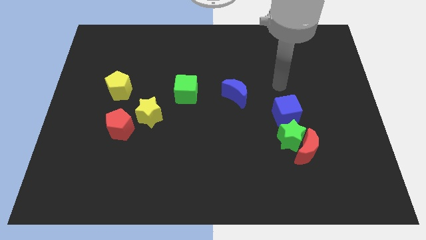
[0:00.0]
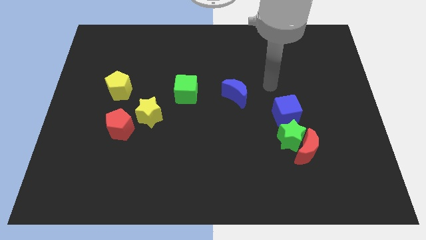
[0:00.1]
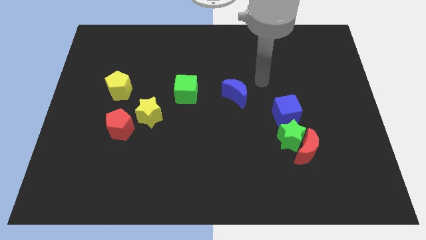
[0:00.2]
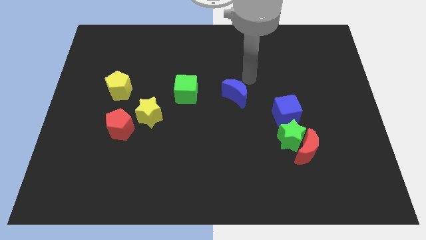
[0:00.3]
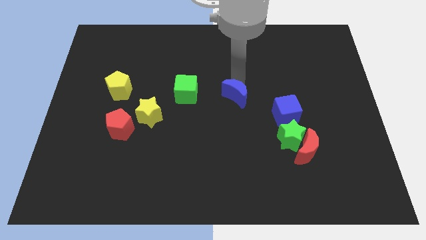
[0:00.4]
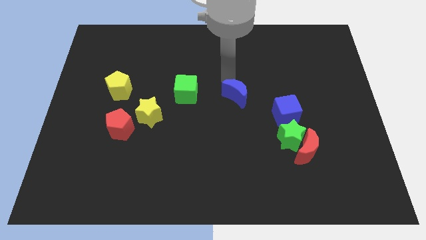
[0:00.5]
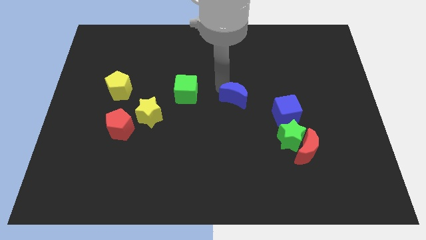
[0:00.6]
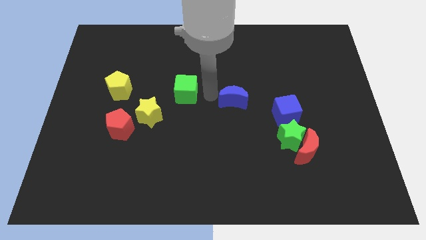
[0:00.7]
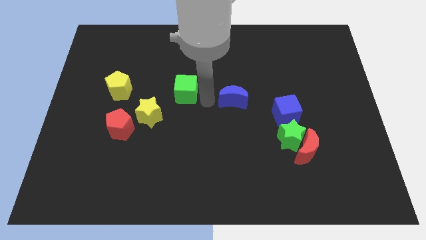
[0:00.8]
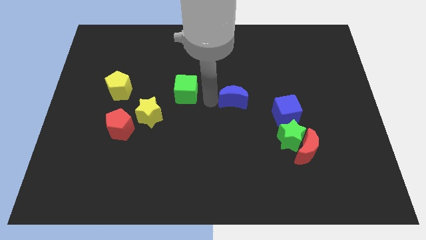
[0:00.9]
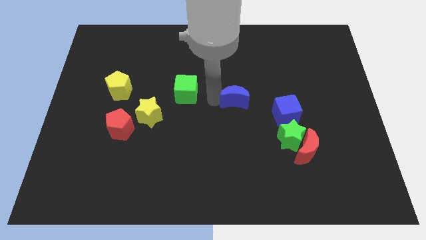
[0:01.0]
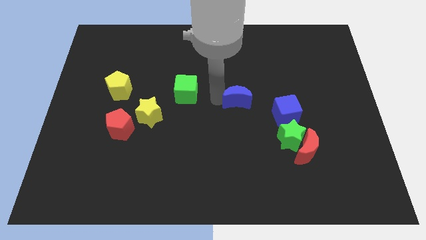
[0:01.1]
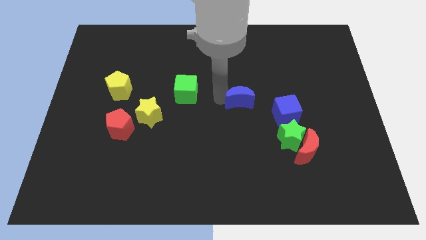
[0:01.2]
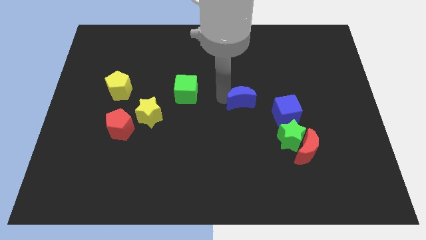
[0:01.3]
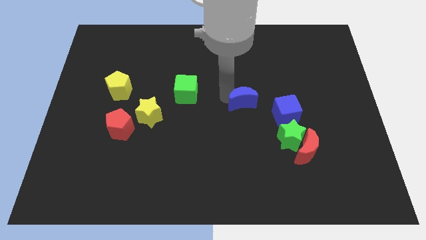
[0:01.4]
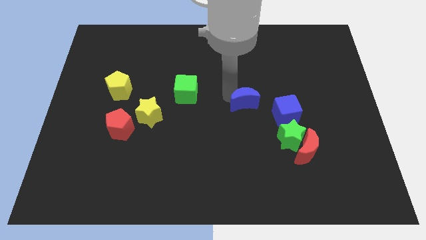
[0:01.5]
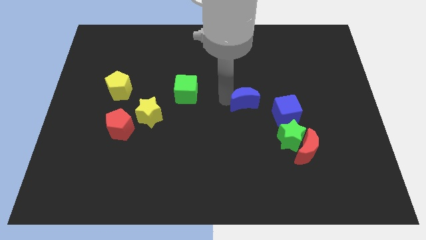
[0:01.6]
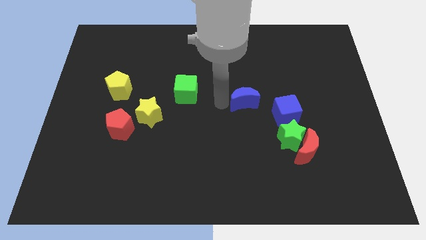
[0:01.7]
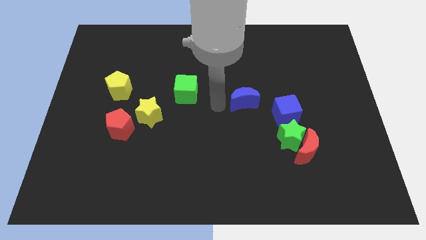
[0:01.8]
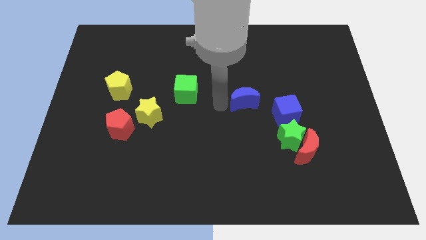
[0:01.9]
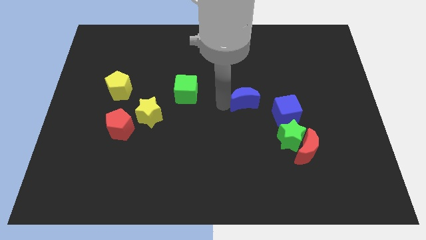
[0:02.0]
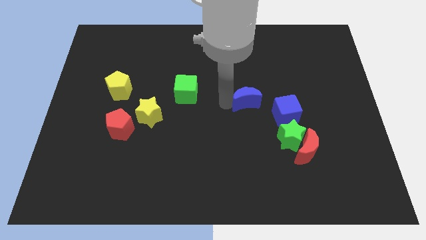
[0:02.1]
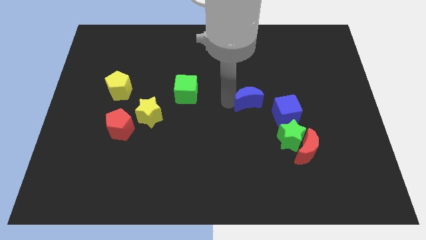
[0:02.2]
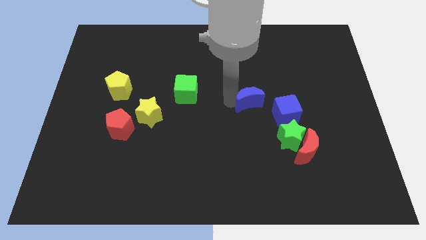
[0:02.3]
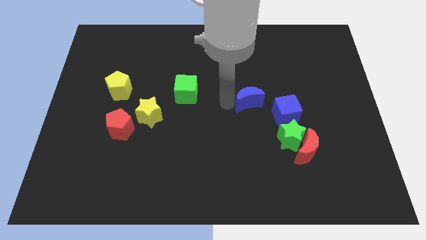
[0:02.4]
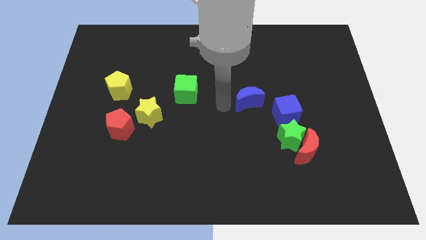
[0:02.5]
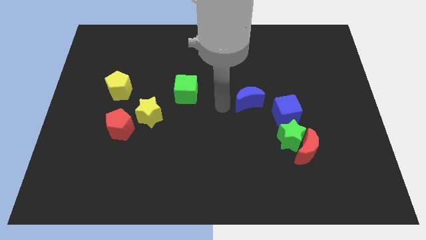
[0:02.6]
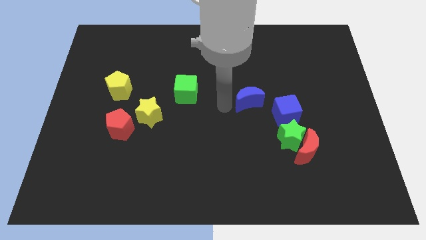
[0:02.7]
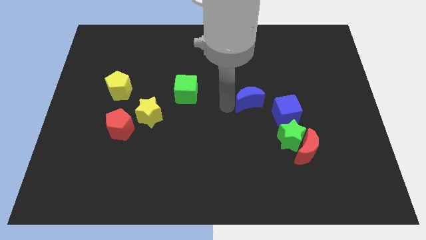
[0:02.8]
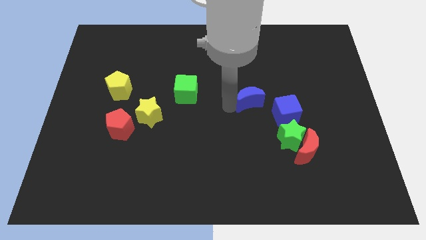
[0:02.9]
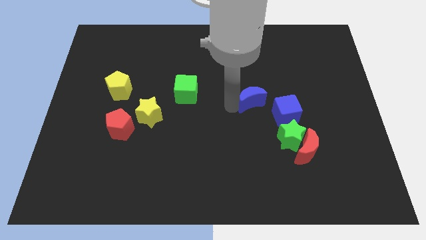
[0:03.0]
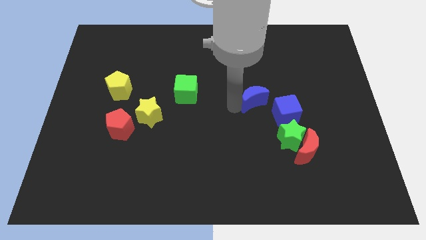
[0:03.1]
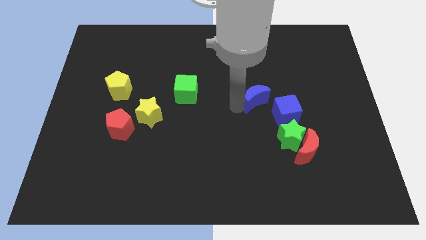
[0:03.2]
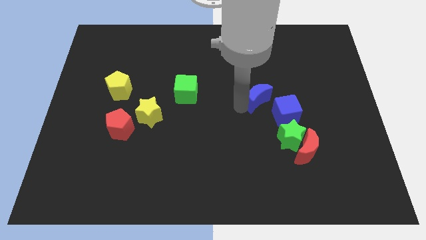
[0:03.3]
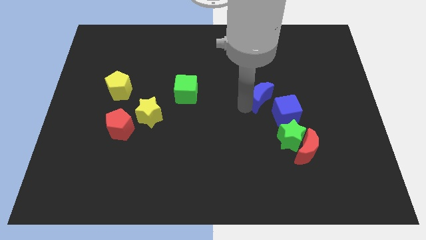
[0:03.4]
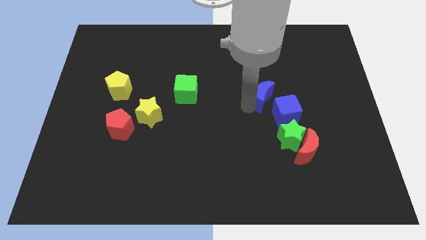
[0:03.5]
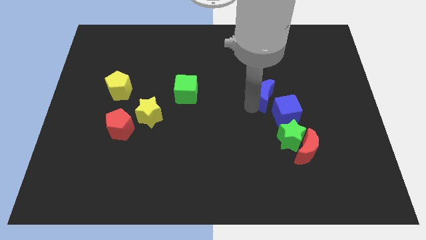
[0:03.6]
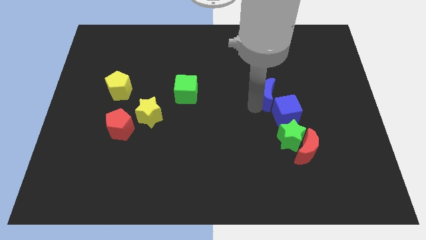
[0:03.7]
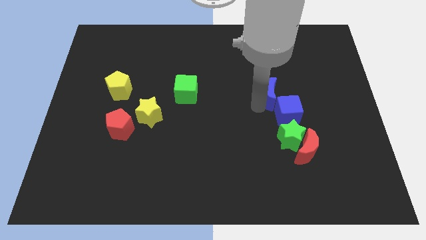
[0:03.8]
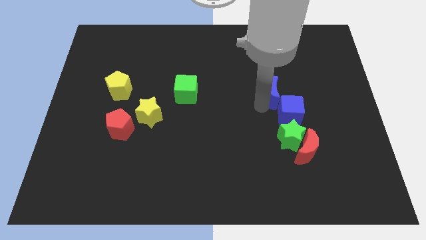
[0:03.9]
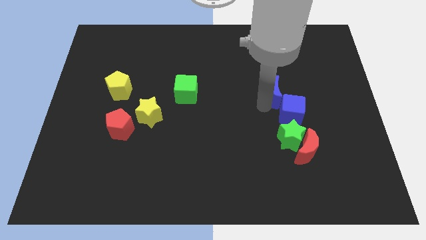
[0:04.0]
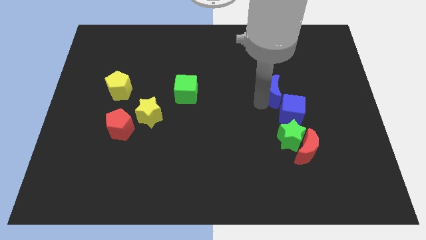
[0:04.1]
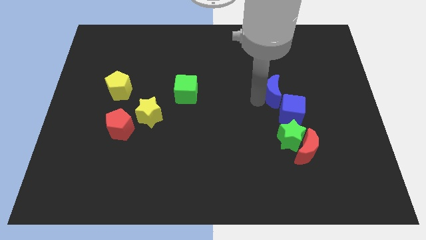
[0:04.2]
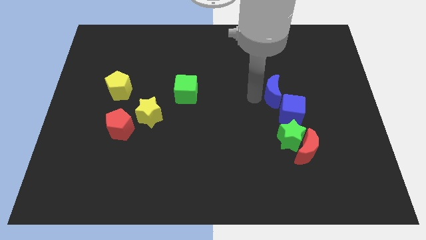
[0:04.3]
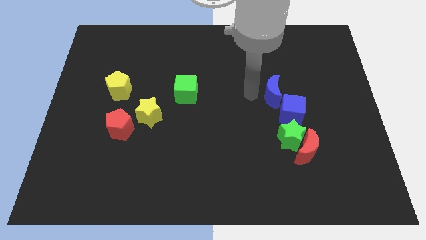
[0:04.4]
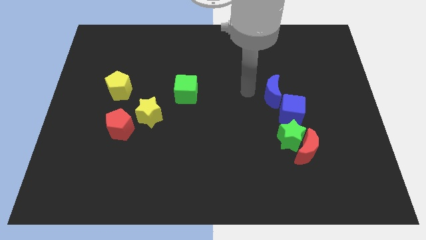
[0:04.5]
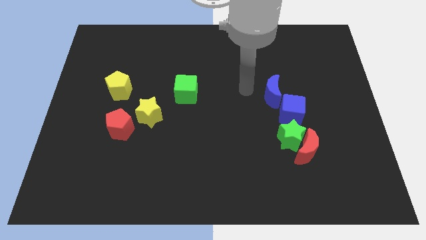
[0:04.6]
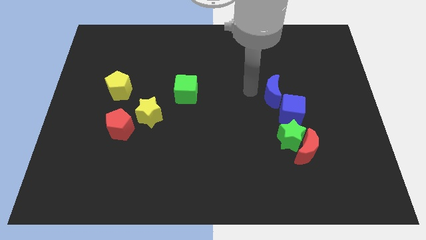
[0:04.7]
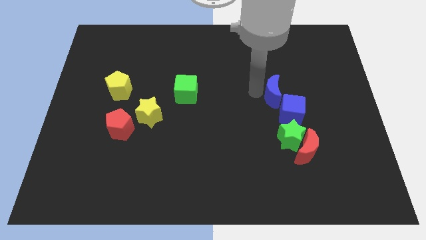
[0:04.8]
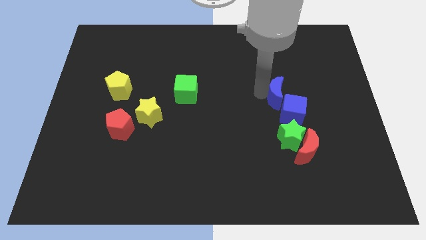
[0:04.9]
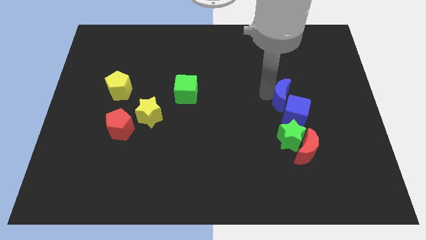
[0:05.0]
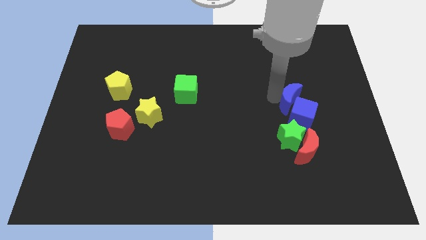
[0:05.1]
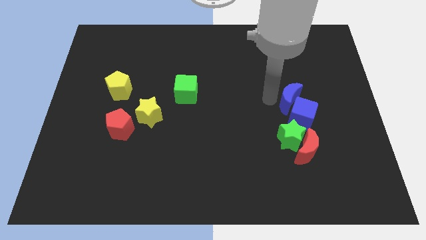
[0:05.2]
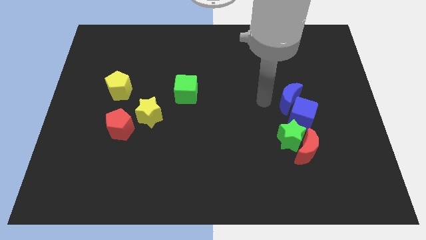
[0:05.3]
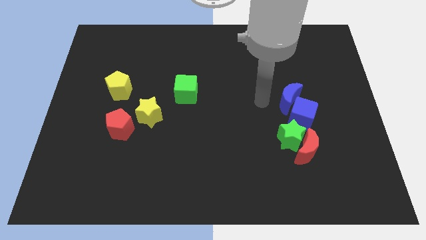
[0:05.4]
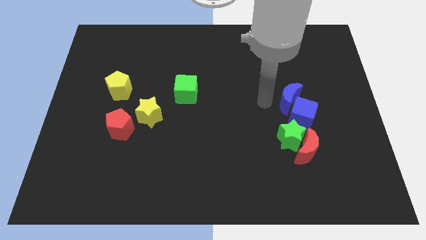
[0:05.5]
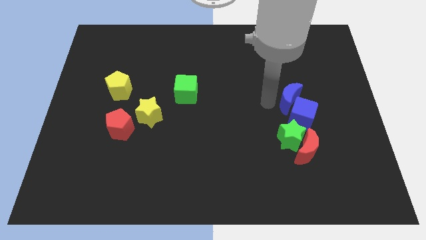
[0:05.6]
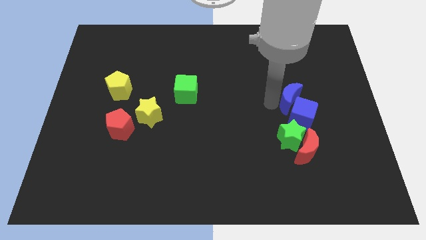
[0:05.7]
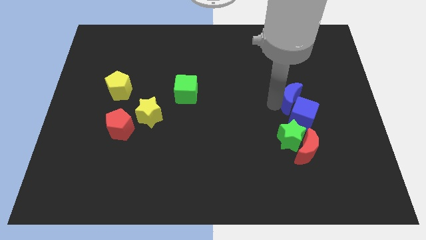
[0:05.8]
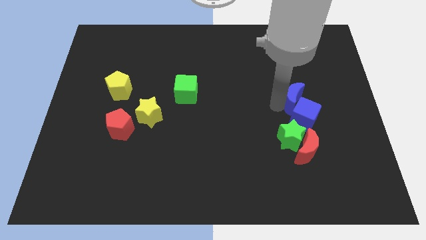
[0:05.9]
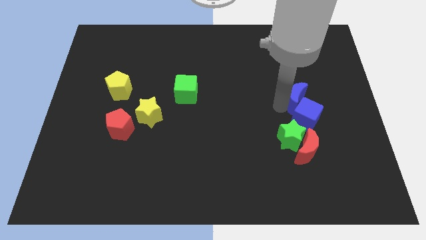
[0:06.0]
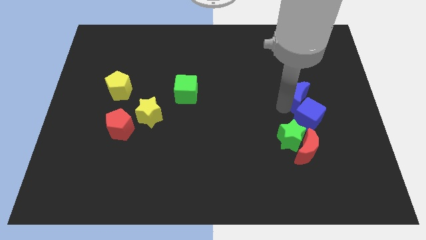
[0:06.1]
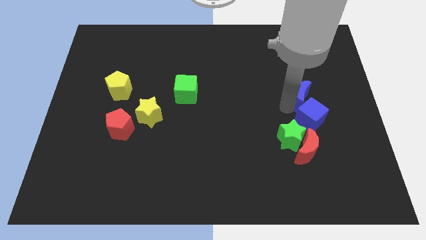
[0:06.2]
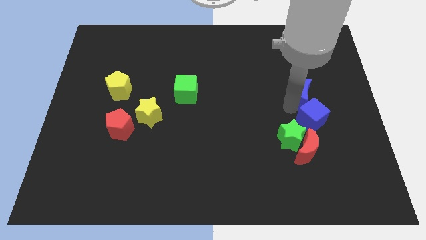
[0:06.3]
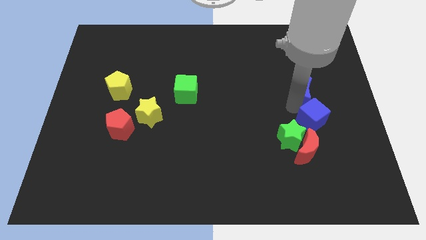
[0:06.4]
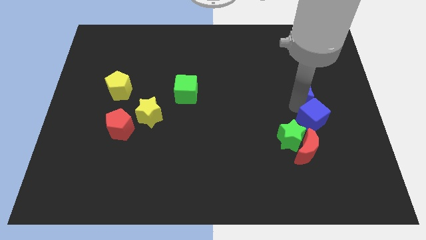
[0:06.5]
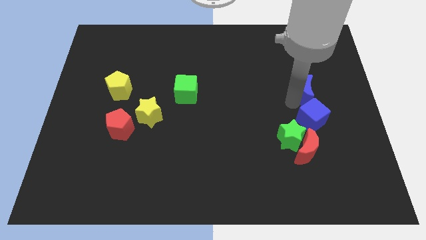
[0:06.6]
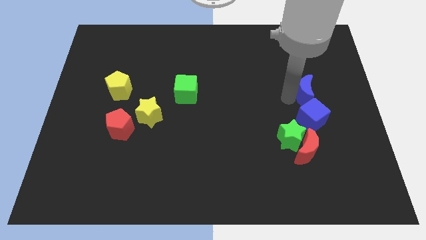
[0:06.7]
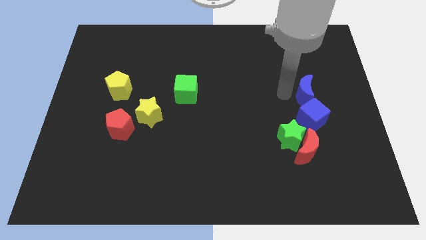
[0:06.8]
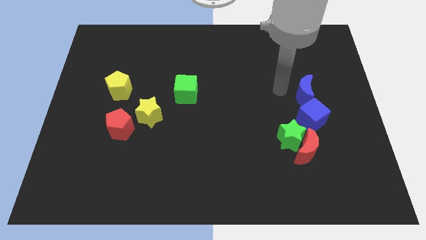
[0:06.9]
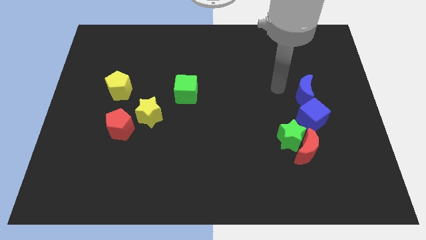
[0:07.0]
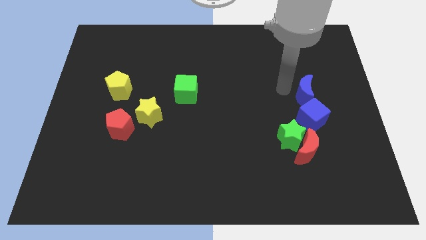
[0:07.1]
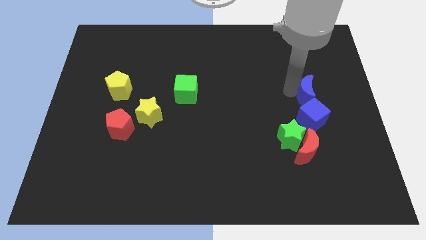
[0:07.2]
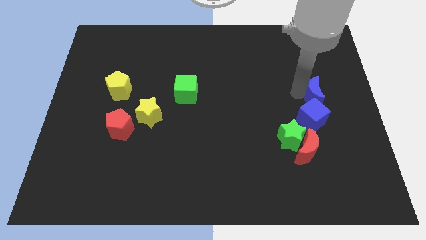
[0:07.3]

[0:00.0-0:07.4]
put the blue moon to the top right of the blue cube
